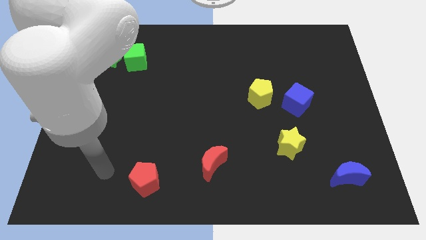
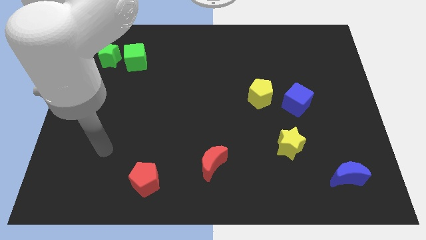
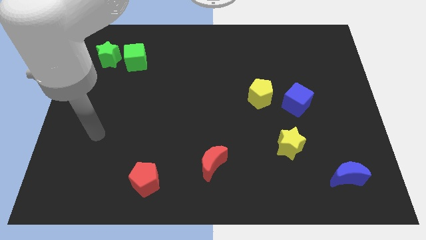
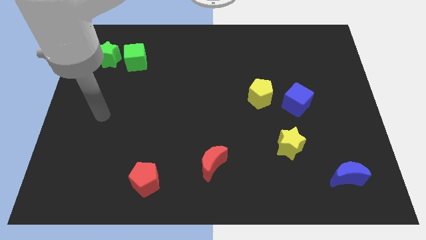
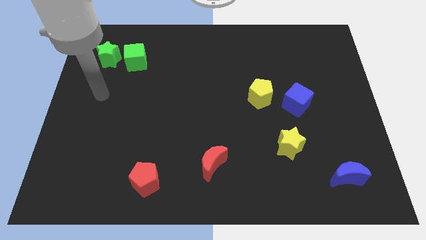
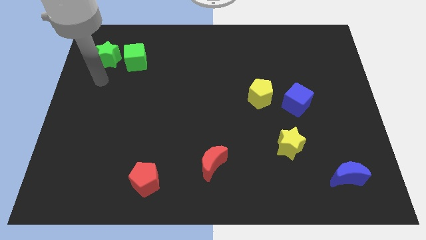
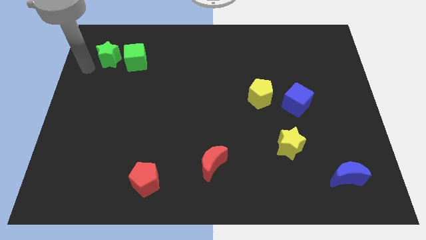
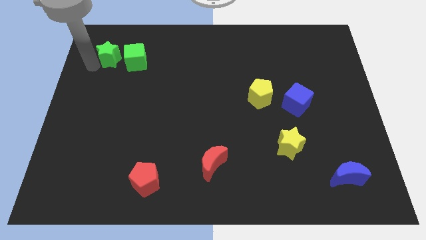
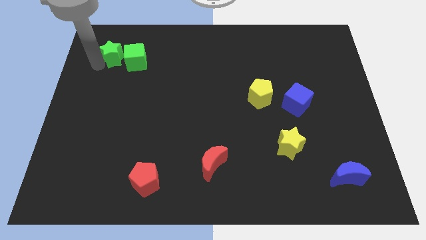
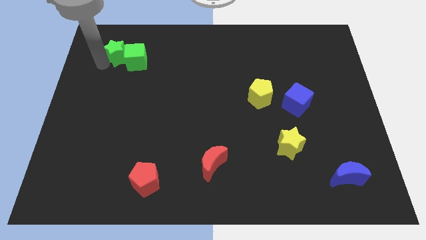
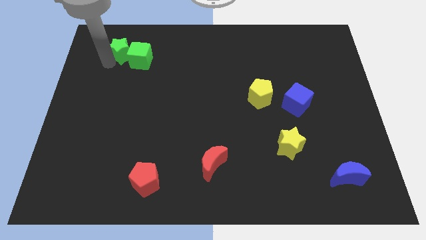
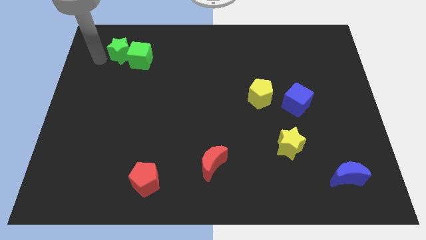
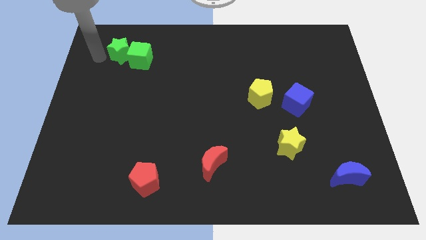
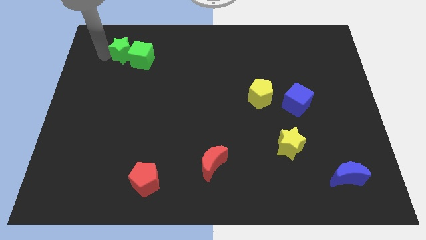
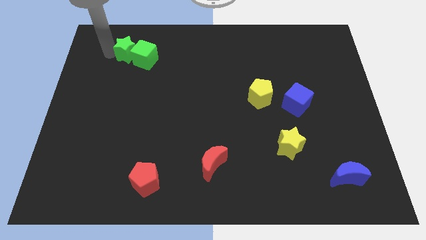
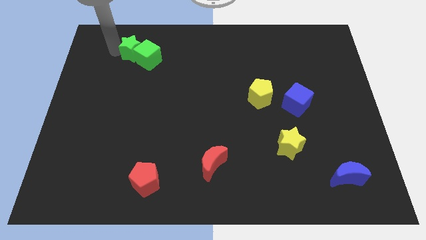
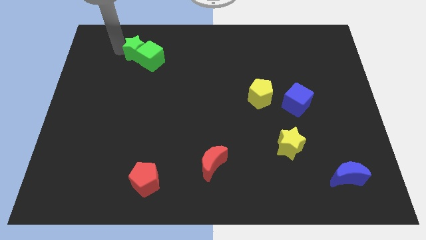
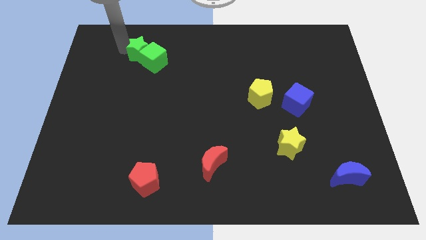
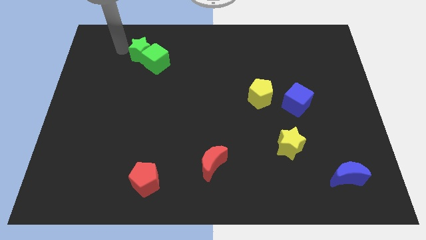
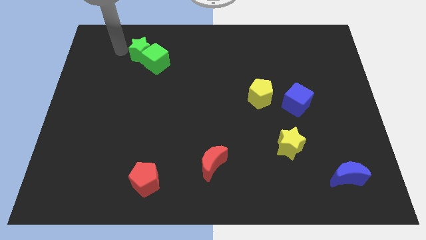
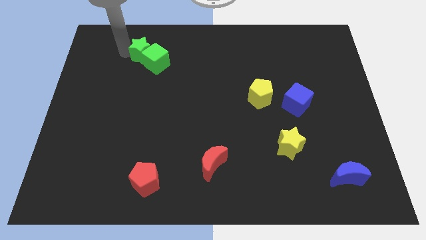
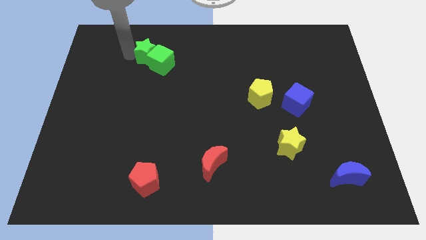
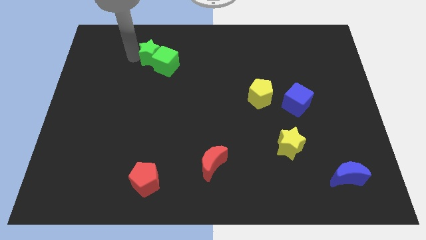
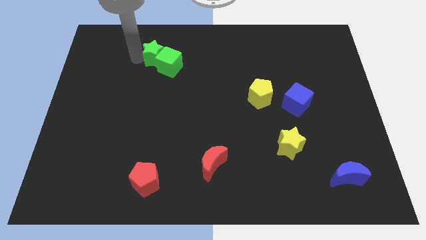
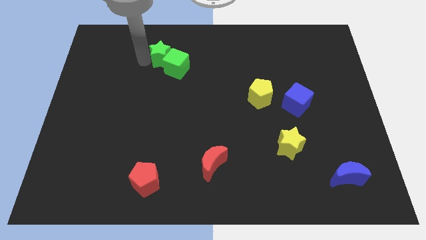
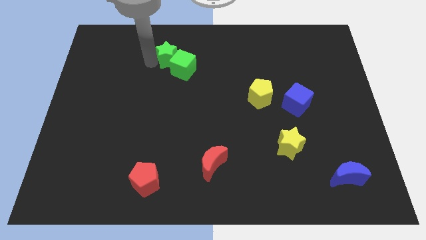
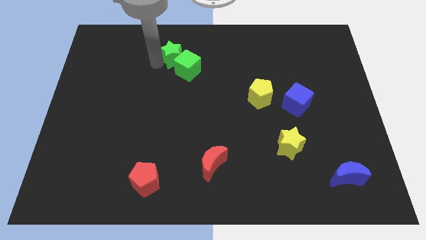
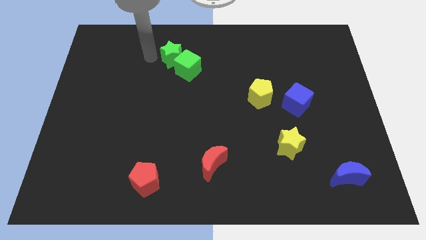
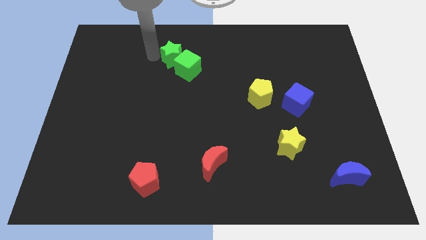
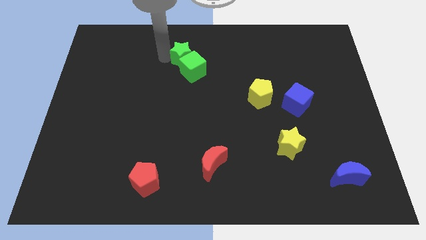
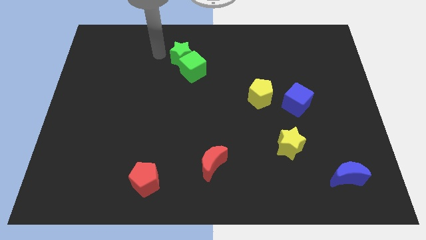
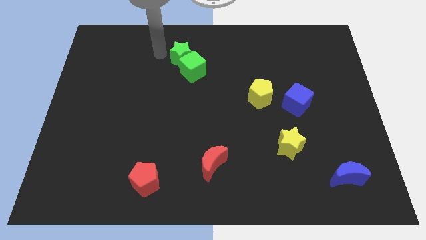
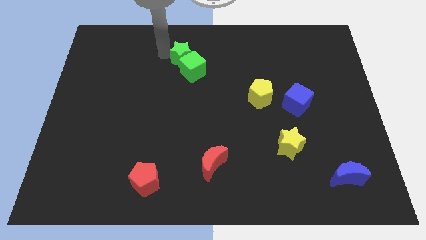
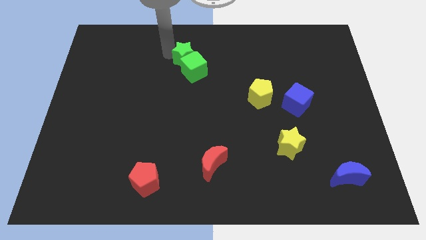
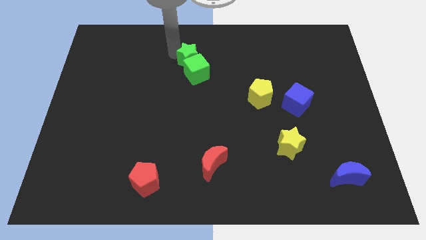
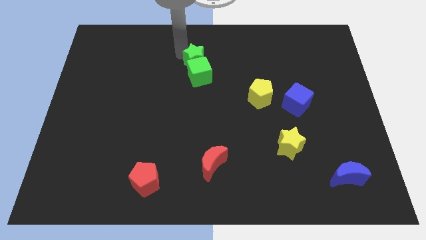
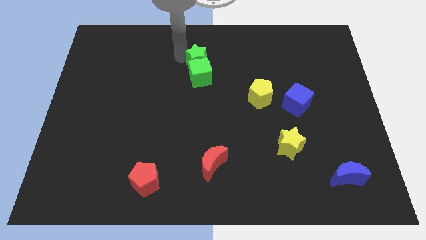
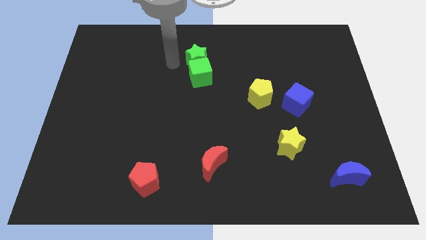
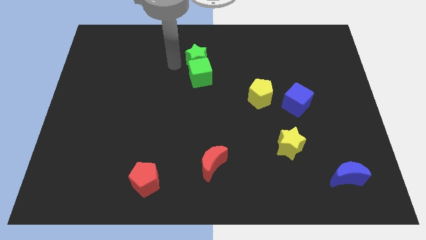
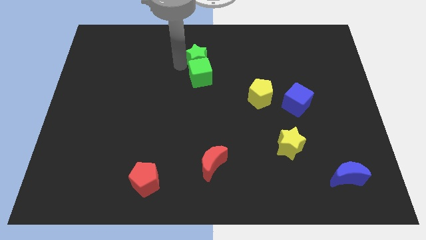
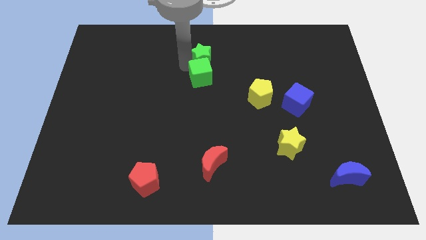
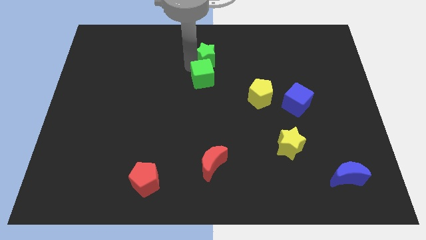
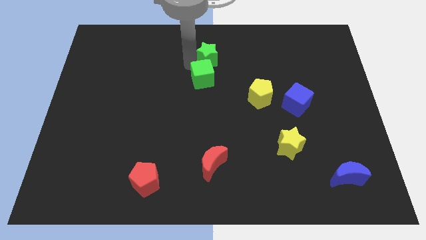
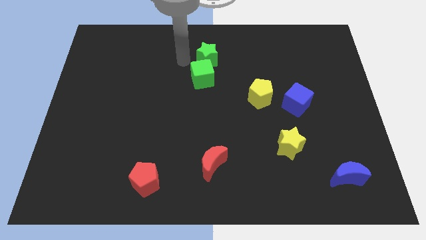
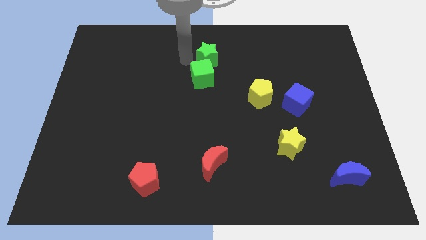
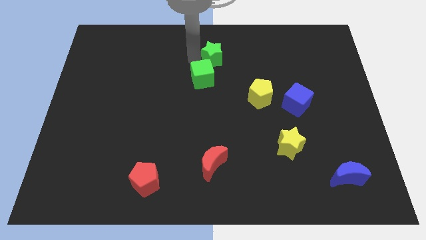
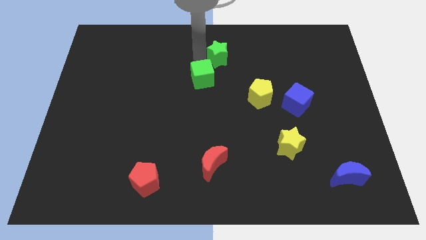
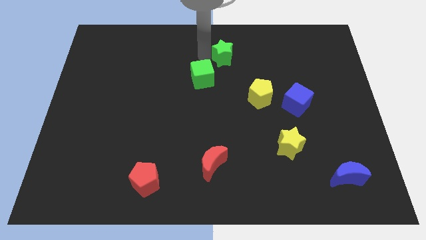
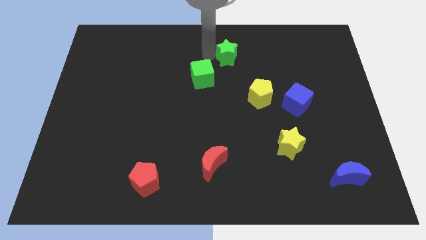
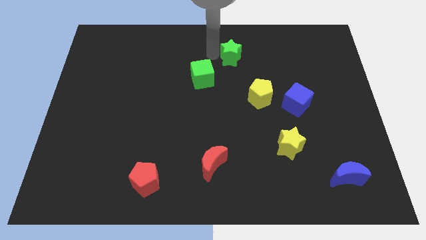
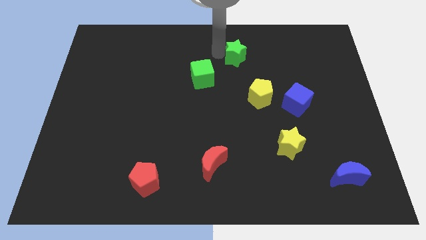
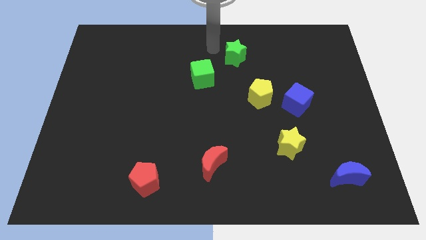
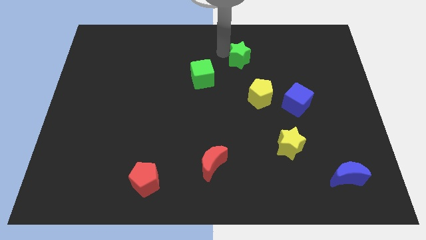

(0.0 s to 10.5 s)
move the green star to the top side of the yellow pentagon

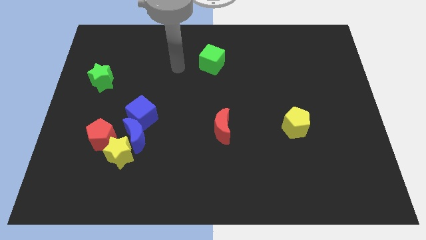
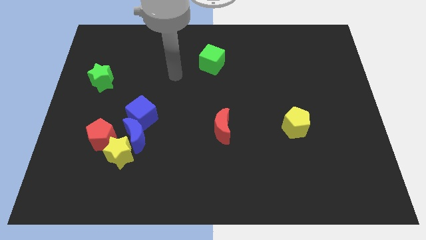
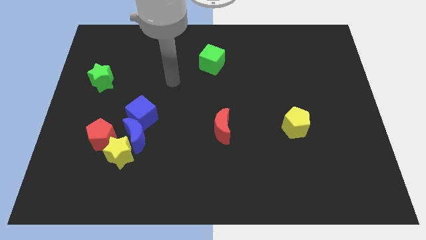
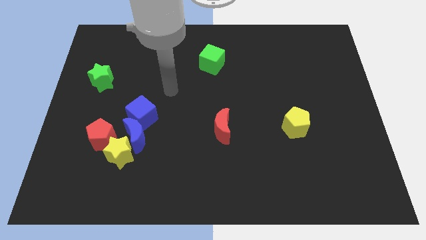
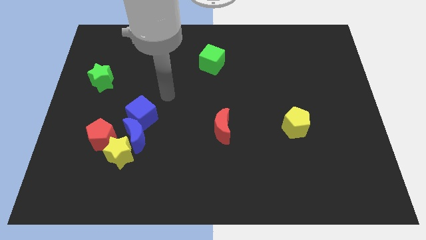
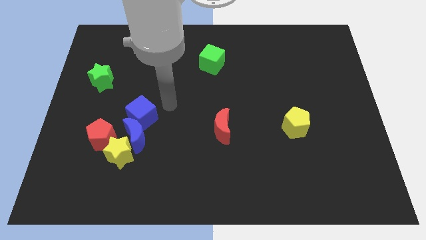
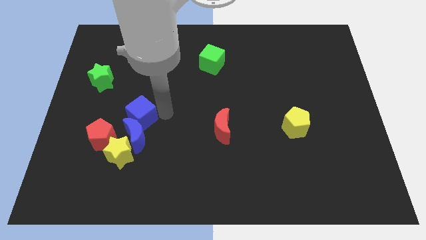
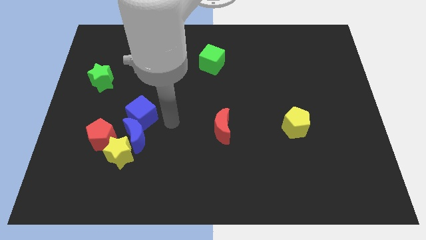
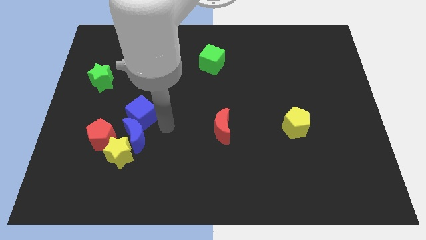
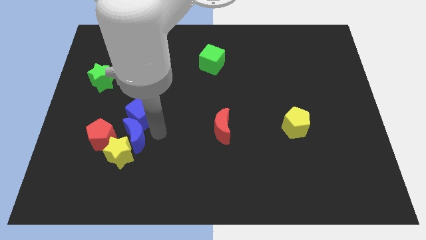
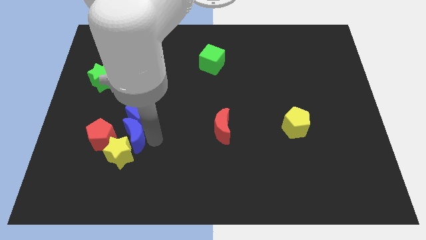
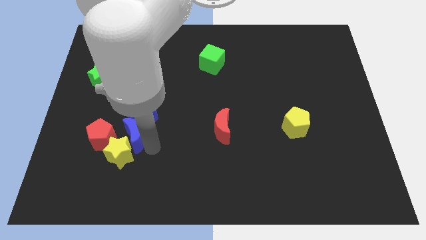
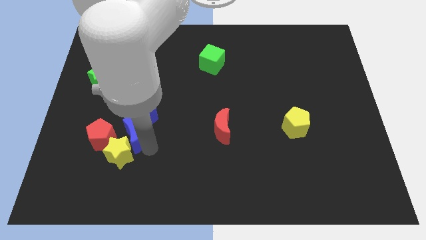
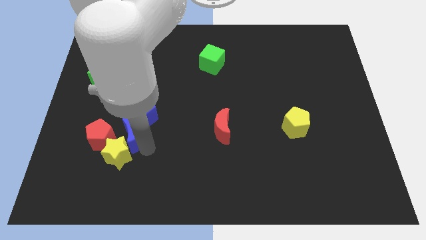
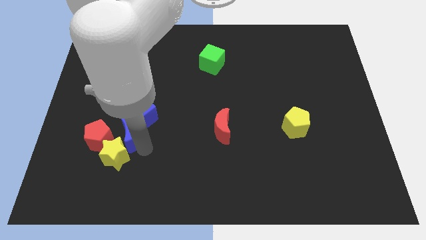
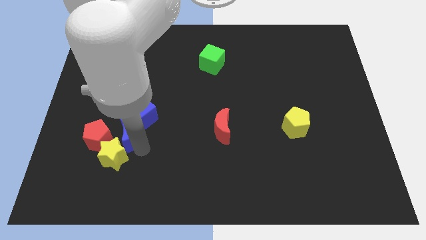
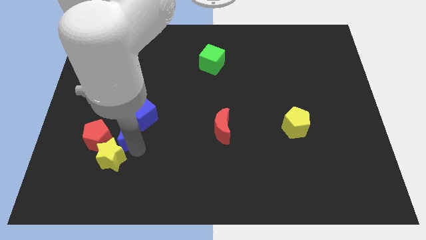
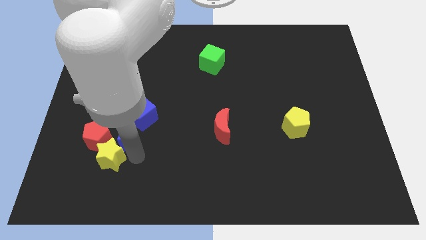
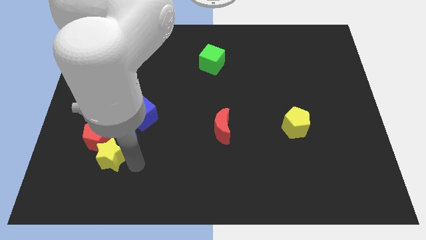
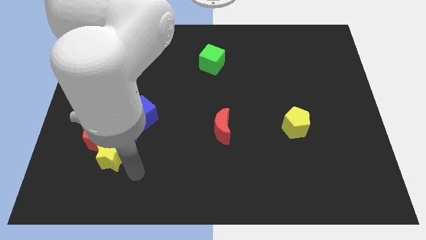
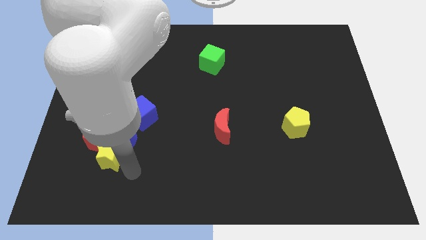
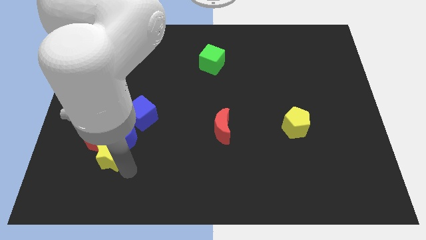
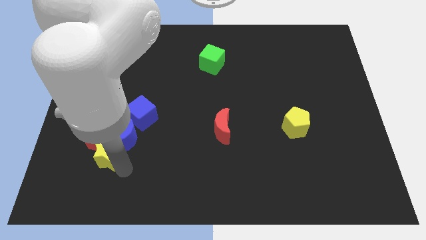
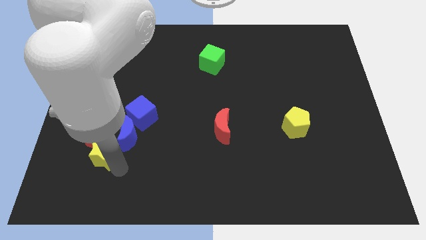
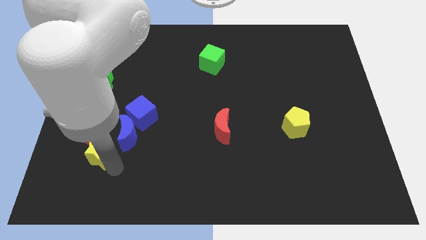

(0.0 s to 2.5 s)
push the yellow star to the left side of the blue moon
